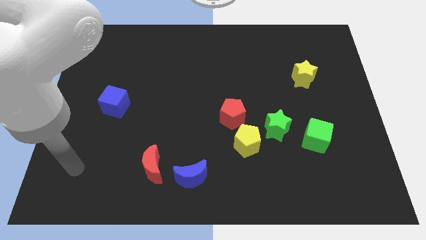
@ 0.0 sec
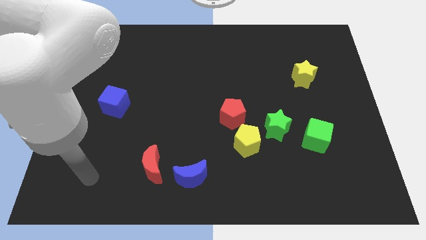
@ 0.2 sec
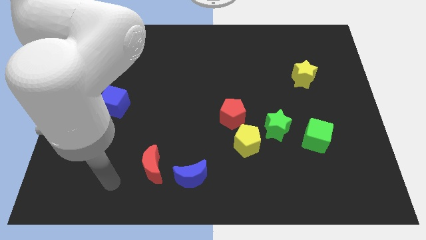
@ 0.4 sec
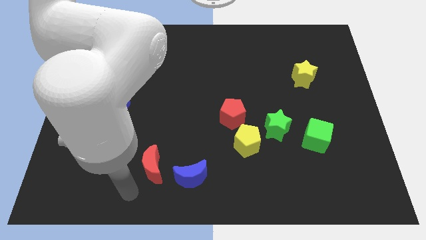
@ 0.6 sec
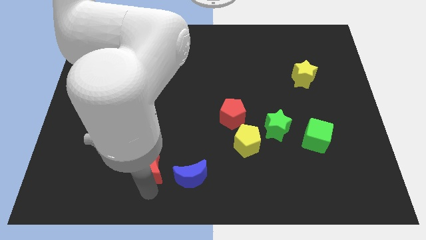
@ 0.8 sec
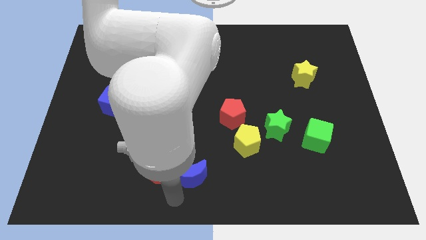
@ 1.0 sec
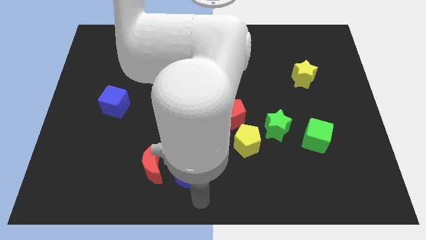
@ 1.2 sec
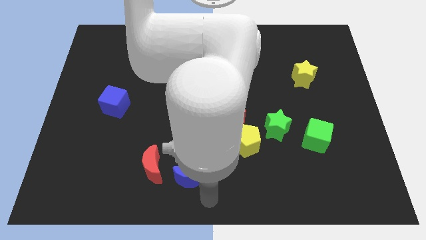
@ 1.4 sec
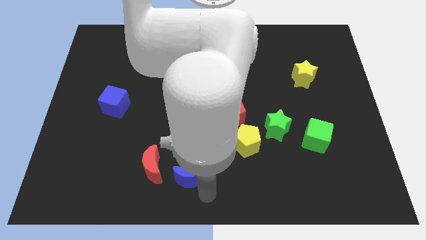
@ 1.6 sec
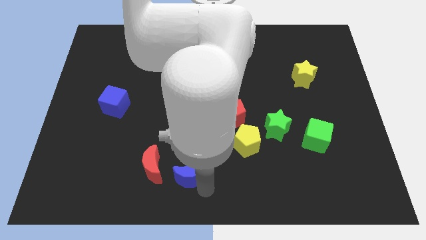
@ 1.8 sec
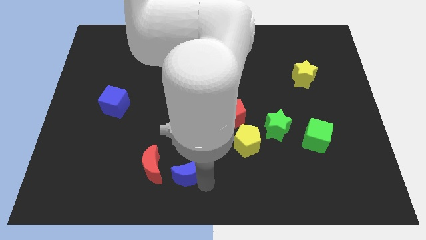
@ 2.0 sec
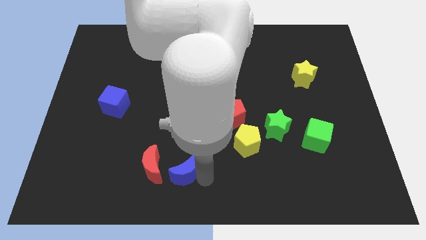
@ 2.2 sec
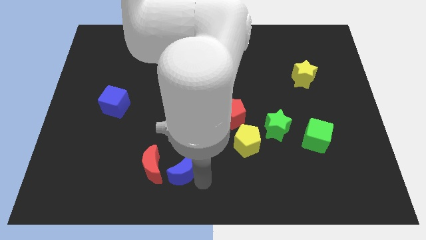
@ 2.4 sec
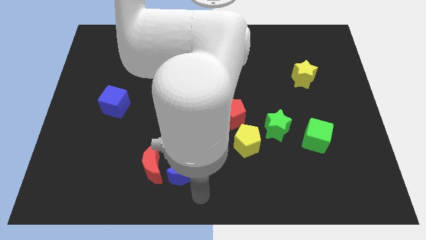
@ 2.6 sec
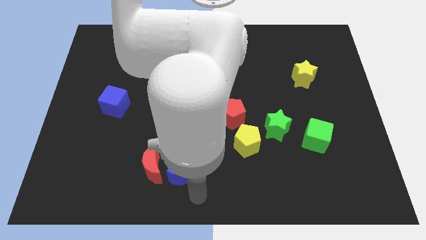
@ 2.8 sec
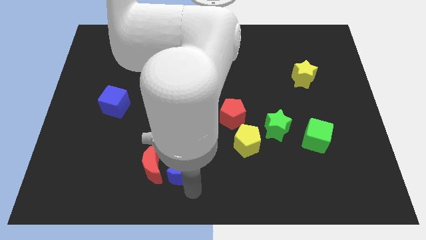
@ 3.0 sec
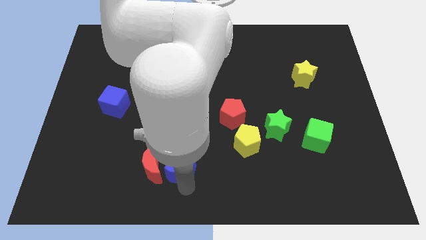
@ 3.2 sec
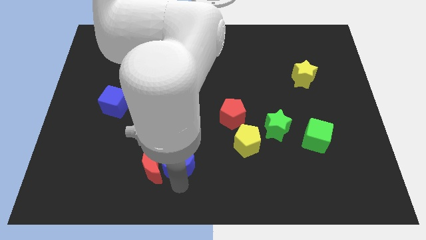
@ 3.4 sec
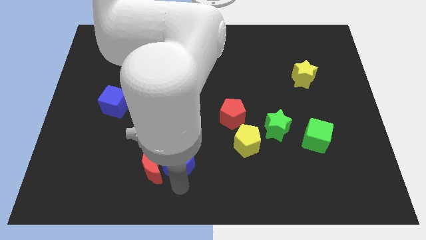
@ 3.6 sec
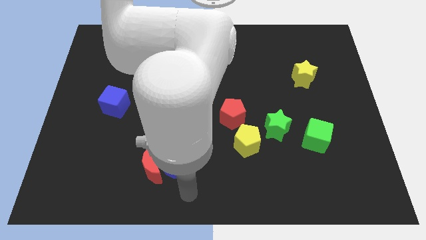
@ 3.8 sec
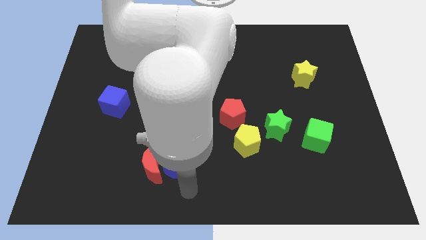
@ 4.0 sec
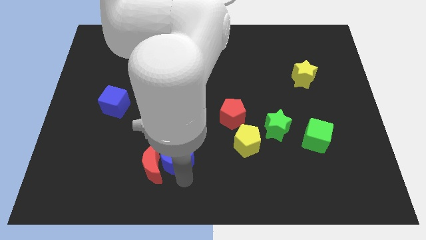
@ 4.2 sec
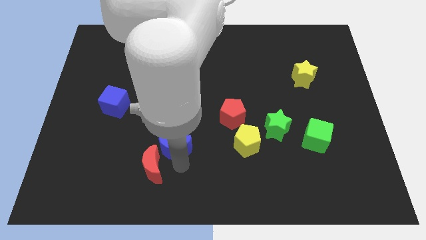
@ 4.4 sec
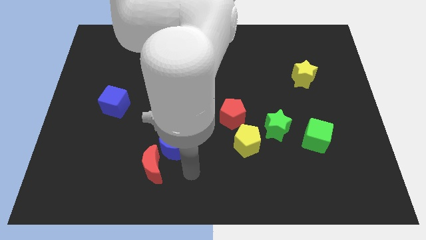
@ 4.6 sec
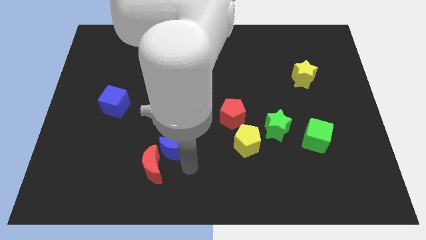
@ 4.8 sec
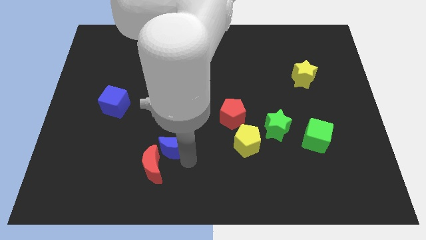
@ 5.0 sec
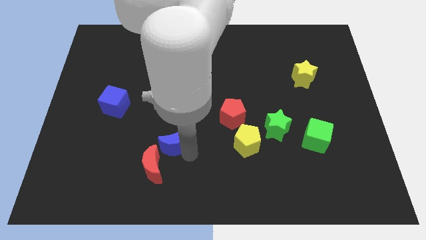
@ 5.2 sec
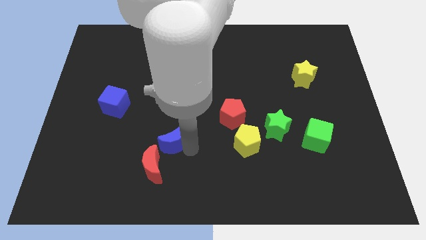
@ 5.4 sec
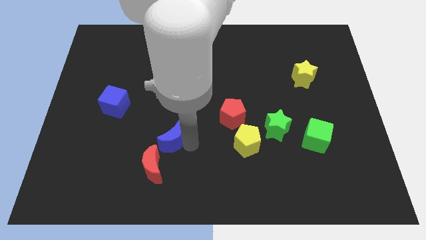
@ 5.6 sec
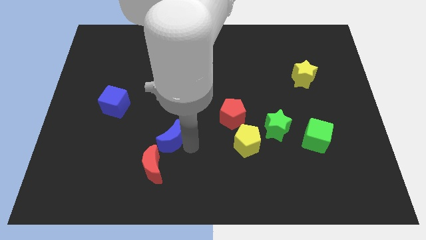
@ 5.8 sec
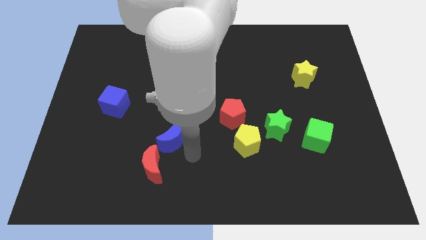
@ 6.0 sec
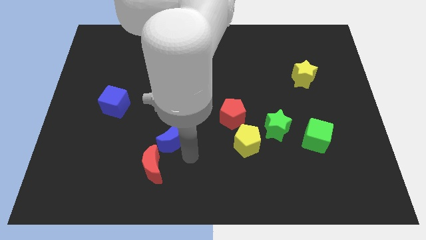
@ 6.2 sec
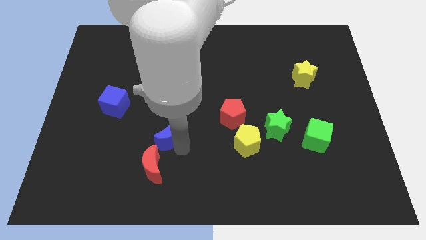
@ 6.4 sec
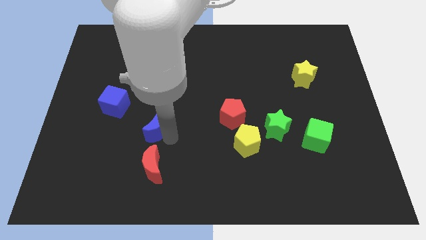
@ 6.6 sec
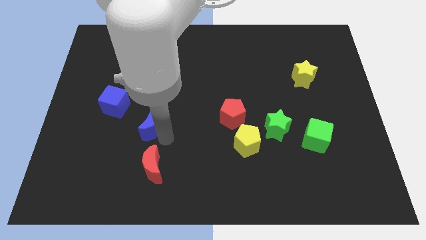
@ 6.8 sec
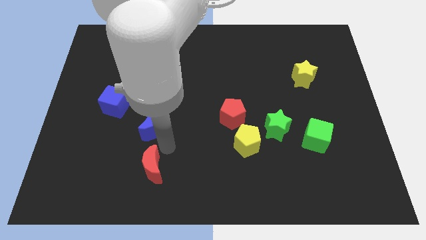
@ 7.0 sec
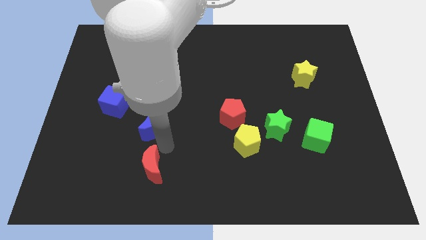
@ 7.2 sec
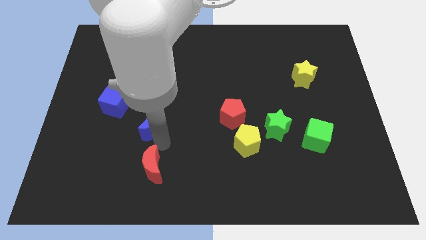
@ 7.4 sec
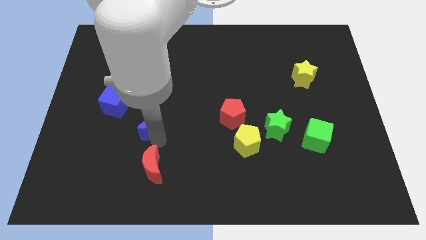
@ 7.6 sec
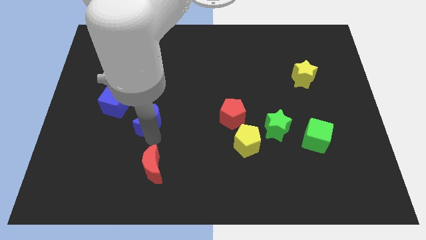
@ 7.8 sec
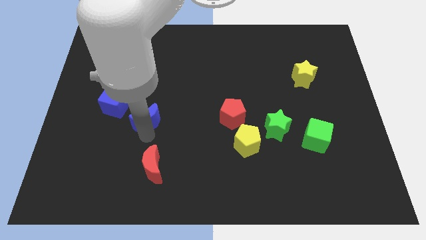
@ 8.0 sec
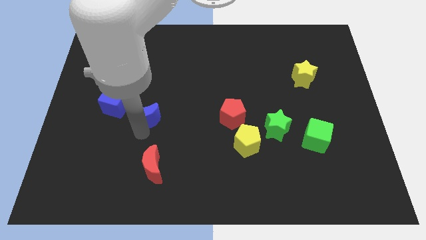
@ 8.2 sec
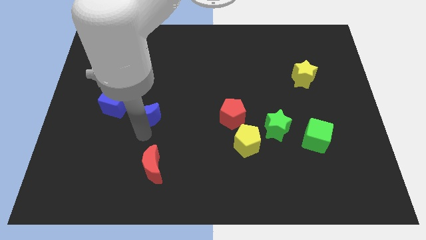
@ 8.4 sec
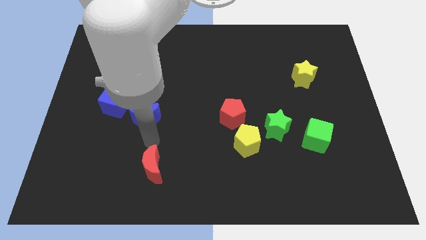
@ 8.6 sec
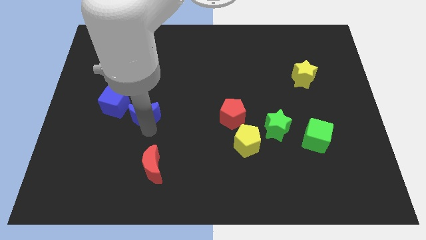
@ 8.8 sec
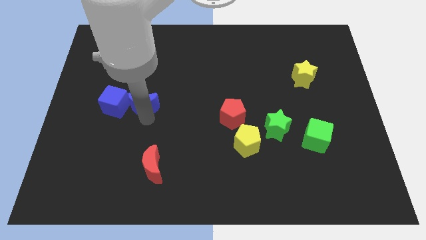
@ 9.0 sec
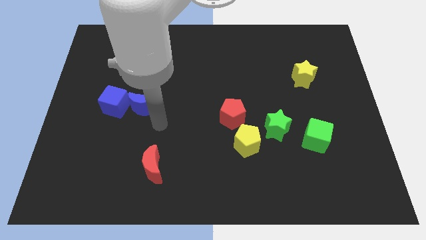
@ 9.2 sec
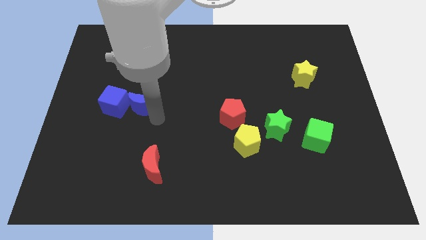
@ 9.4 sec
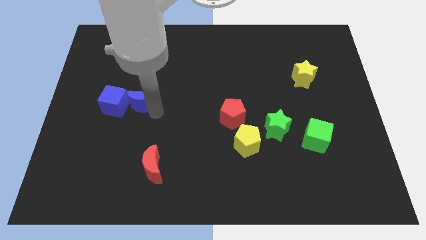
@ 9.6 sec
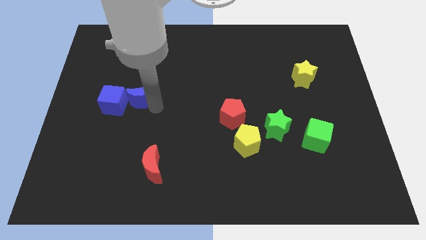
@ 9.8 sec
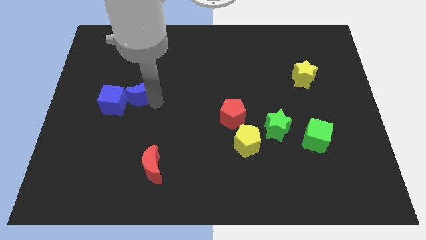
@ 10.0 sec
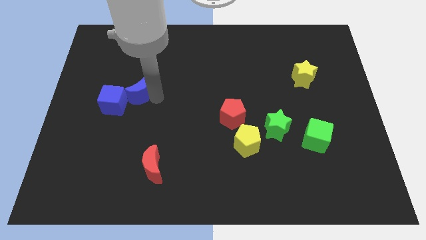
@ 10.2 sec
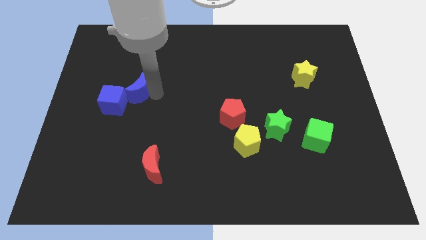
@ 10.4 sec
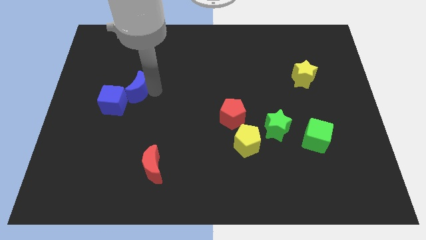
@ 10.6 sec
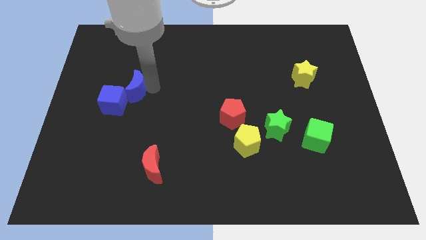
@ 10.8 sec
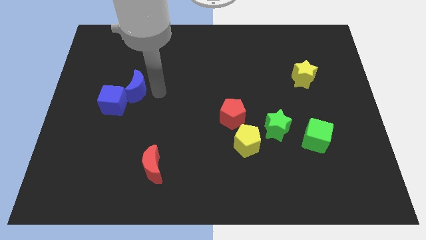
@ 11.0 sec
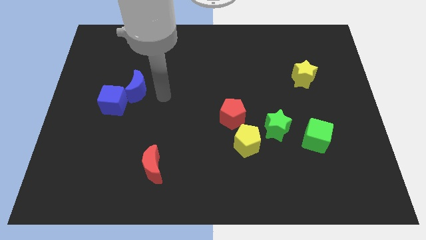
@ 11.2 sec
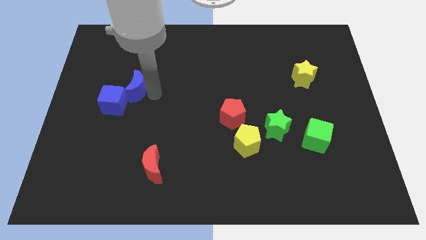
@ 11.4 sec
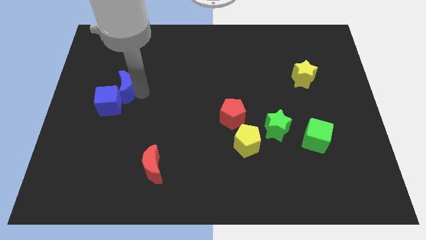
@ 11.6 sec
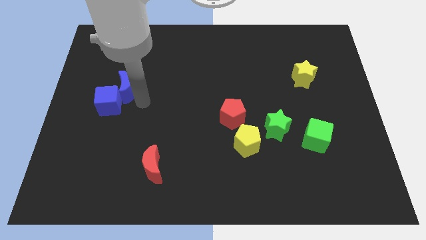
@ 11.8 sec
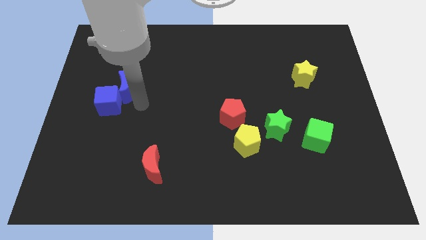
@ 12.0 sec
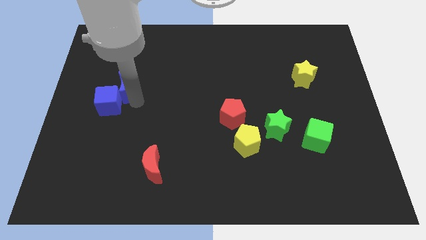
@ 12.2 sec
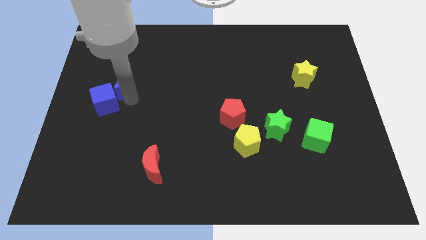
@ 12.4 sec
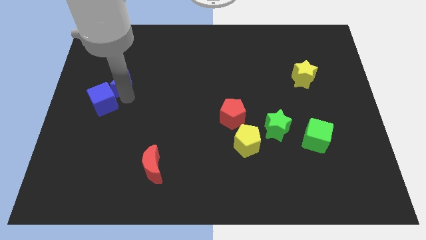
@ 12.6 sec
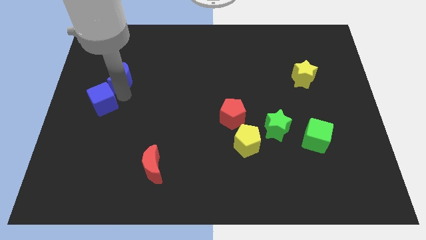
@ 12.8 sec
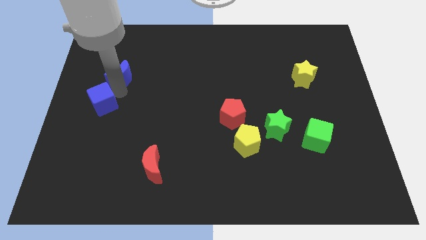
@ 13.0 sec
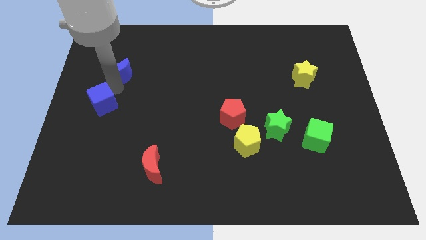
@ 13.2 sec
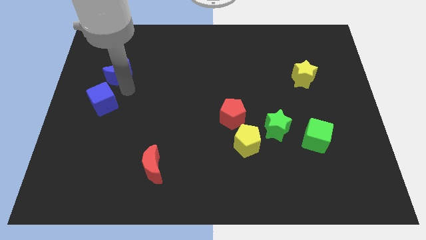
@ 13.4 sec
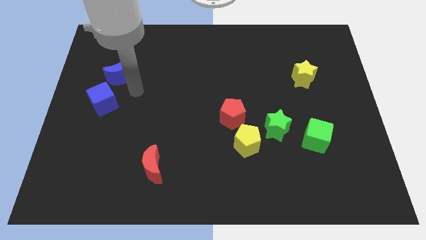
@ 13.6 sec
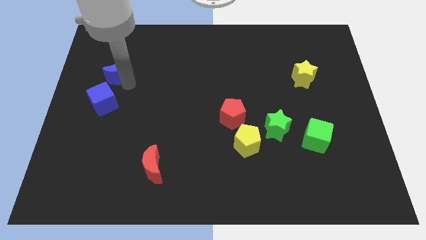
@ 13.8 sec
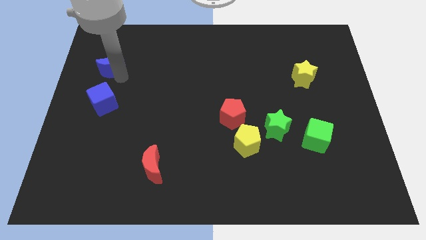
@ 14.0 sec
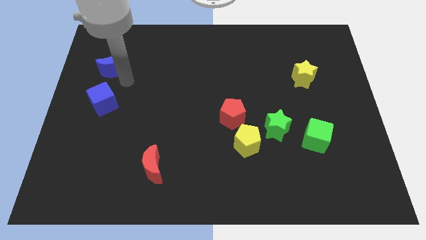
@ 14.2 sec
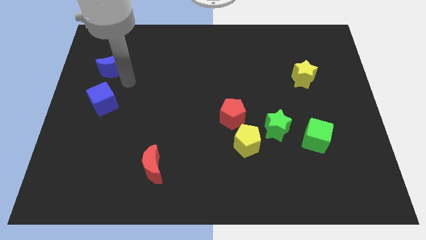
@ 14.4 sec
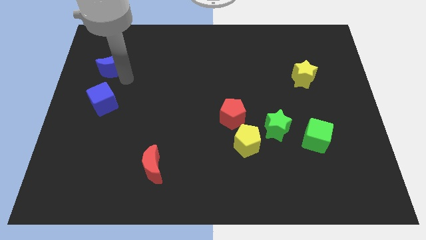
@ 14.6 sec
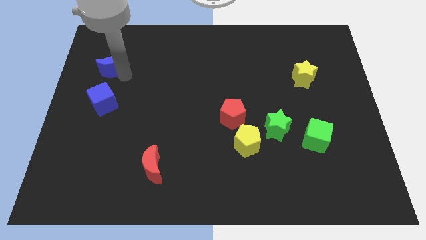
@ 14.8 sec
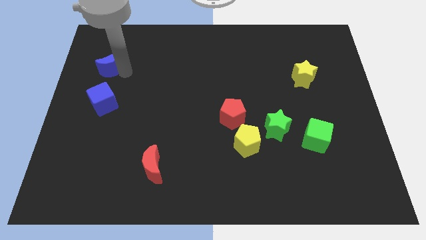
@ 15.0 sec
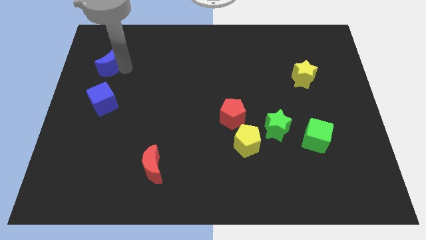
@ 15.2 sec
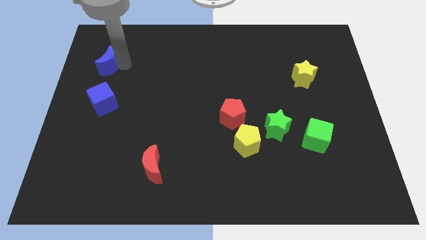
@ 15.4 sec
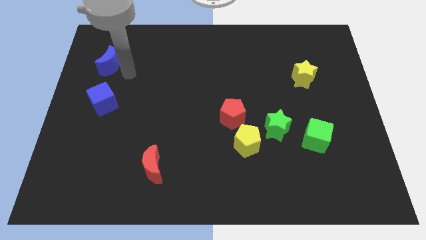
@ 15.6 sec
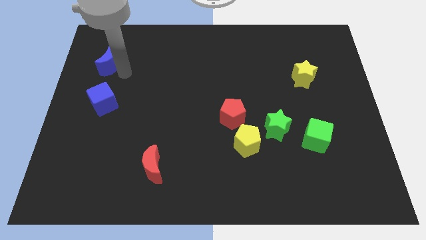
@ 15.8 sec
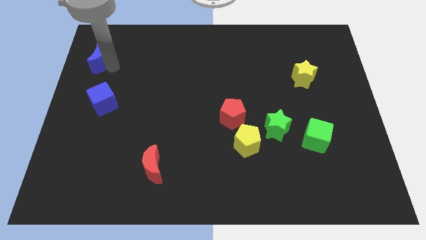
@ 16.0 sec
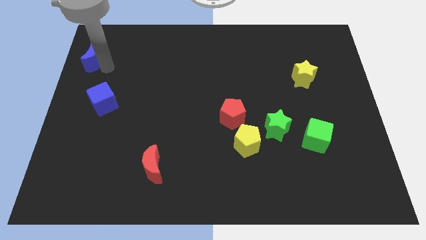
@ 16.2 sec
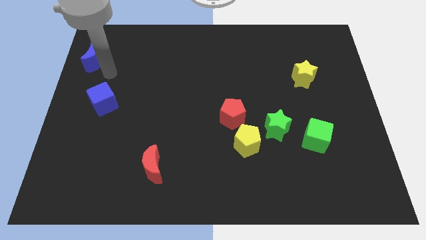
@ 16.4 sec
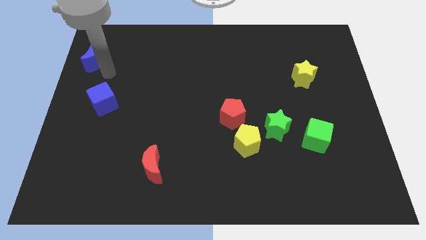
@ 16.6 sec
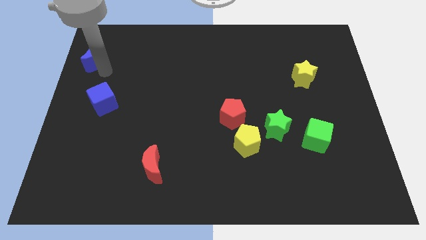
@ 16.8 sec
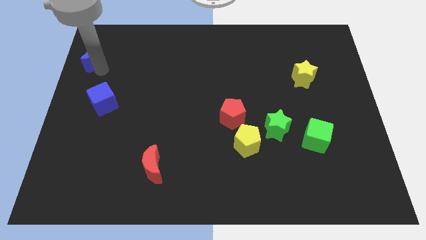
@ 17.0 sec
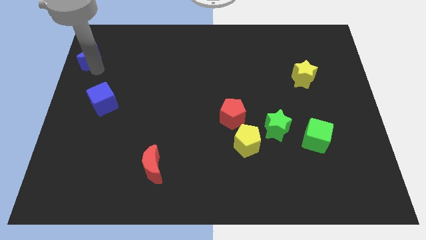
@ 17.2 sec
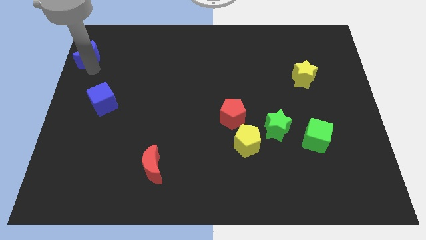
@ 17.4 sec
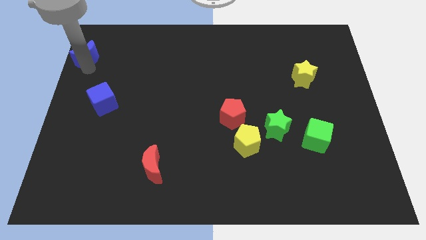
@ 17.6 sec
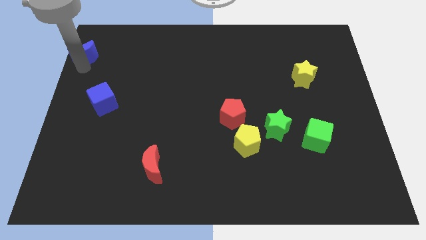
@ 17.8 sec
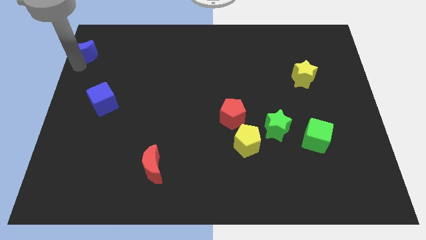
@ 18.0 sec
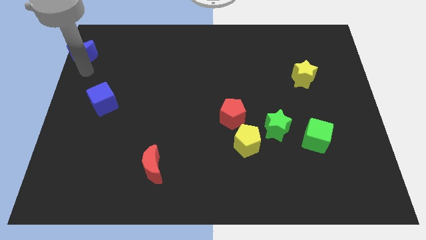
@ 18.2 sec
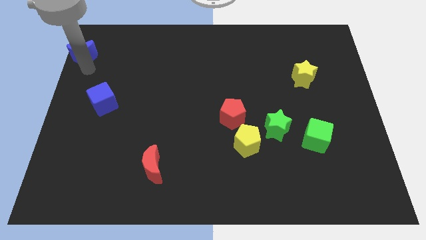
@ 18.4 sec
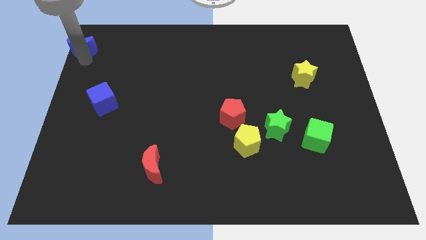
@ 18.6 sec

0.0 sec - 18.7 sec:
push the blue moon to the top left
